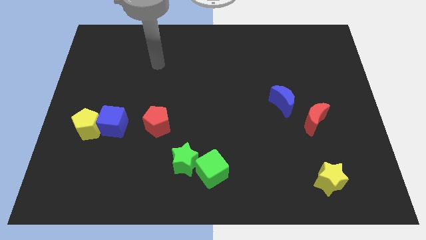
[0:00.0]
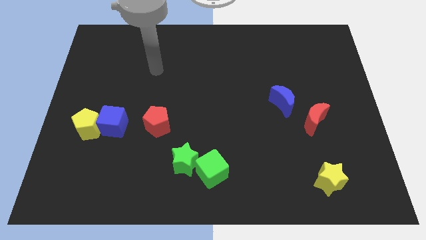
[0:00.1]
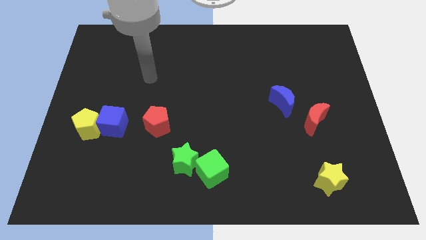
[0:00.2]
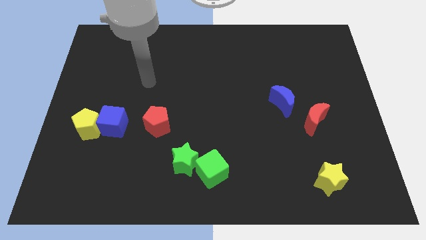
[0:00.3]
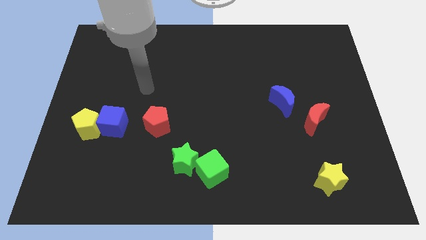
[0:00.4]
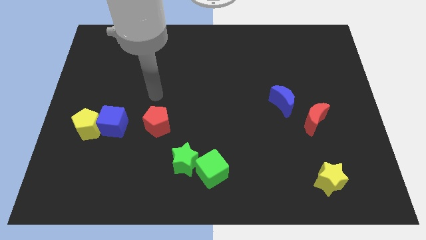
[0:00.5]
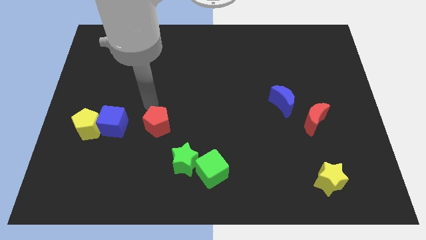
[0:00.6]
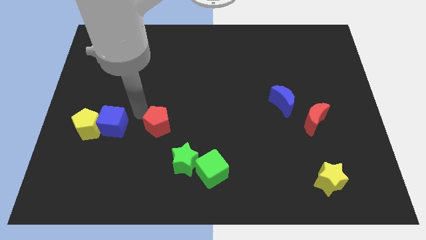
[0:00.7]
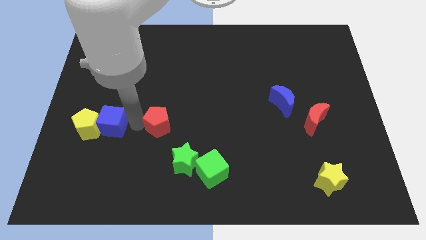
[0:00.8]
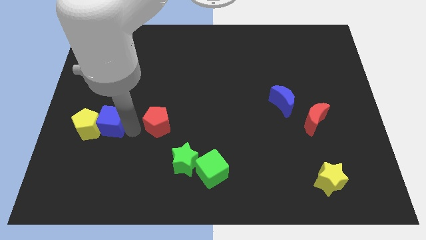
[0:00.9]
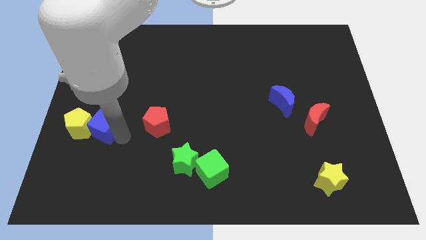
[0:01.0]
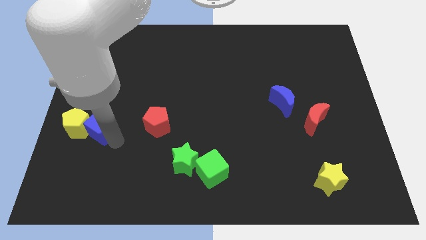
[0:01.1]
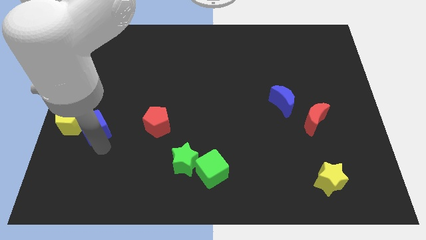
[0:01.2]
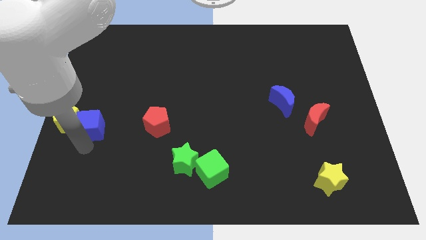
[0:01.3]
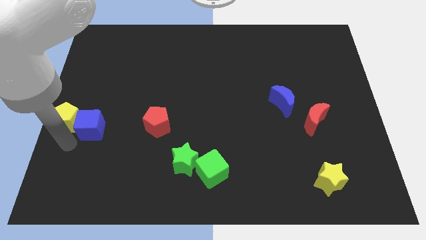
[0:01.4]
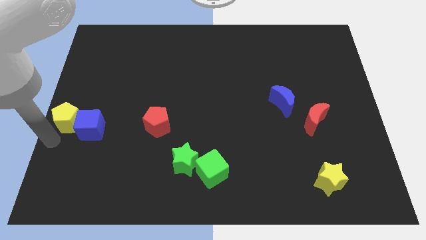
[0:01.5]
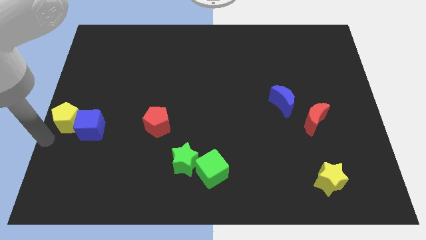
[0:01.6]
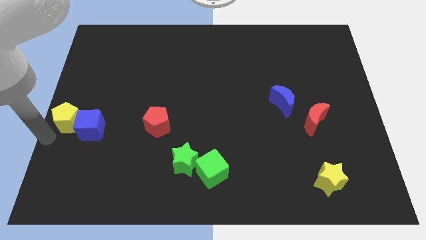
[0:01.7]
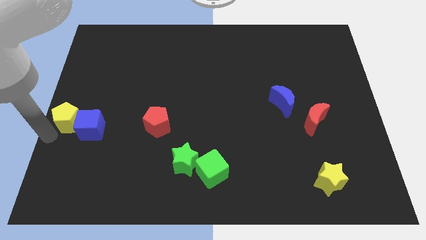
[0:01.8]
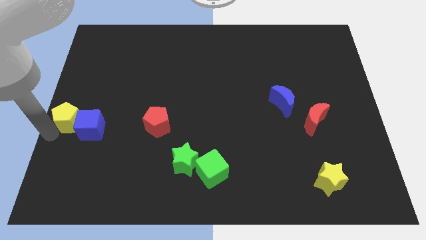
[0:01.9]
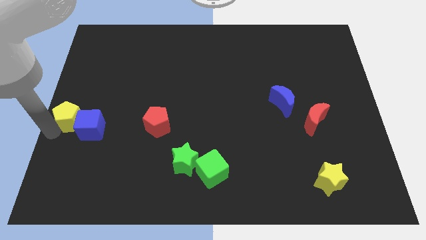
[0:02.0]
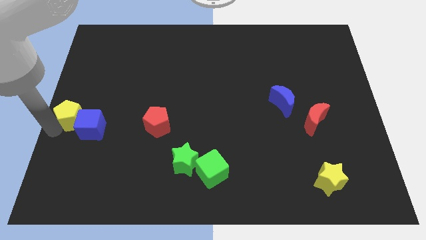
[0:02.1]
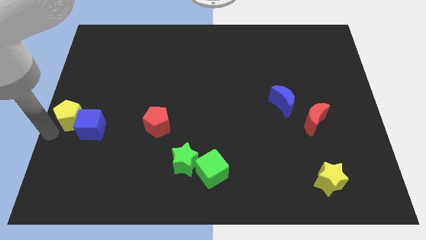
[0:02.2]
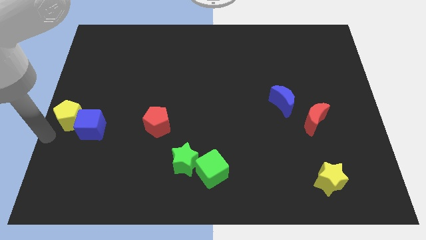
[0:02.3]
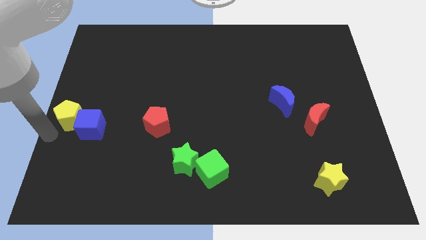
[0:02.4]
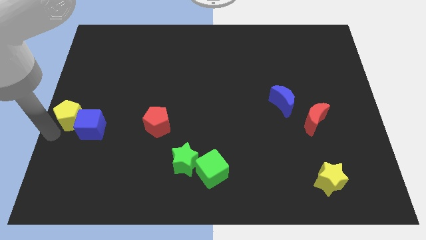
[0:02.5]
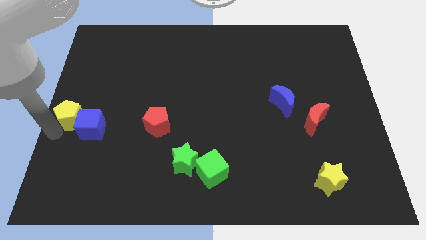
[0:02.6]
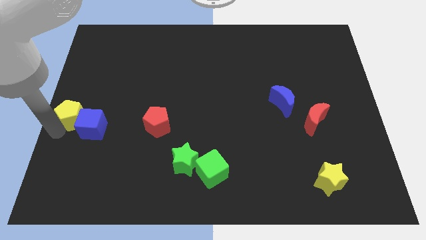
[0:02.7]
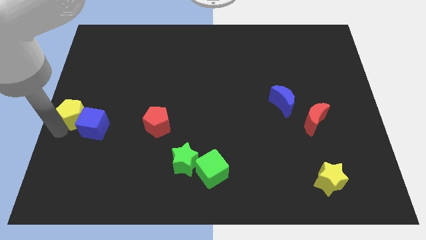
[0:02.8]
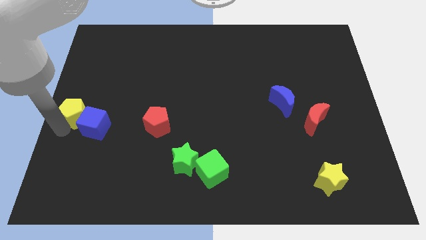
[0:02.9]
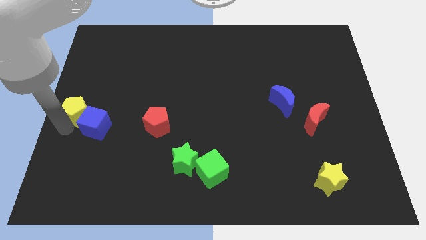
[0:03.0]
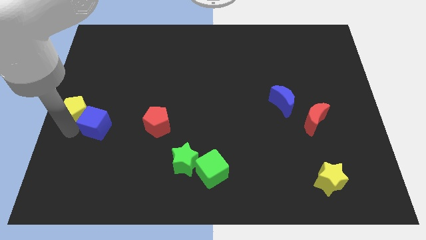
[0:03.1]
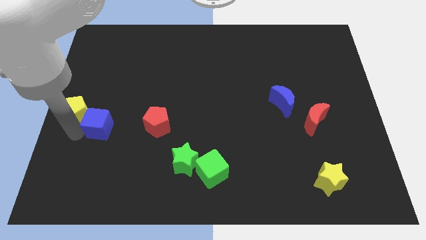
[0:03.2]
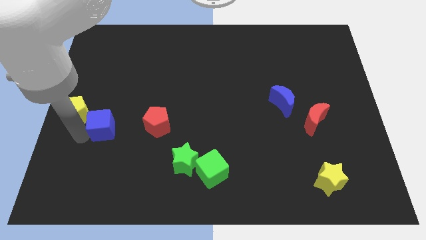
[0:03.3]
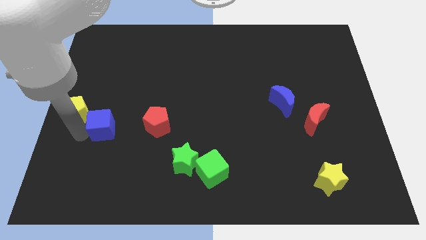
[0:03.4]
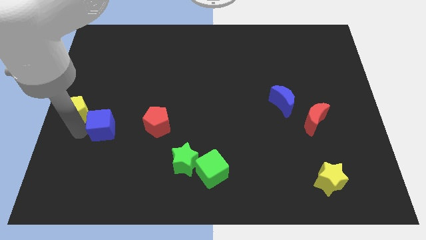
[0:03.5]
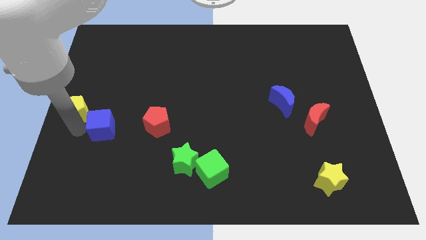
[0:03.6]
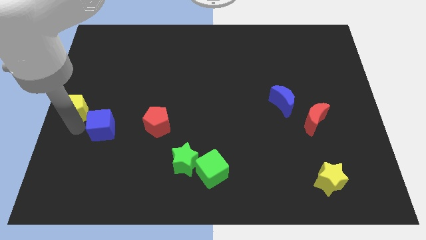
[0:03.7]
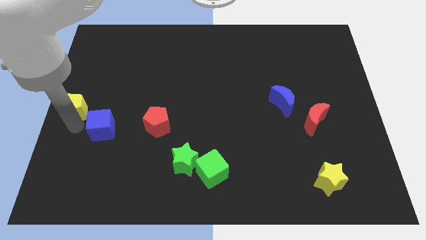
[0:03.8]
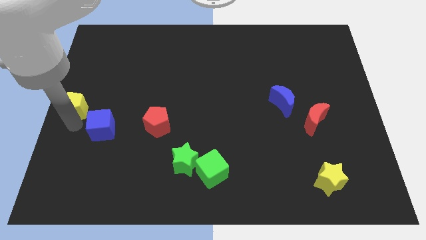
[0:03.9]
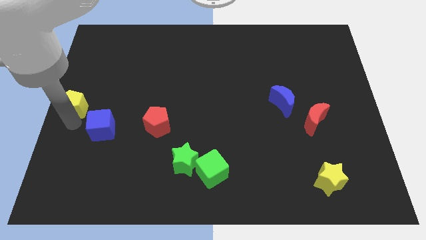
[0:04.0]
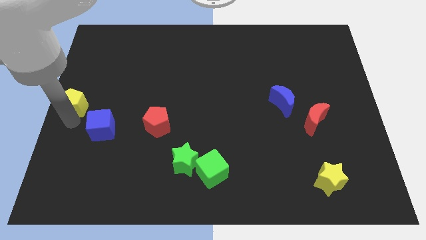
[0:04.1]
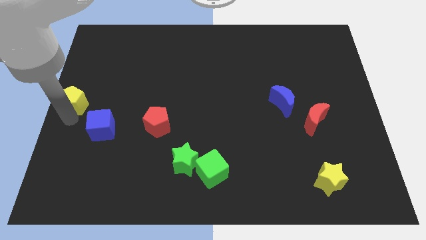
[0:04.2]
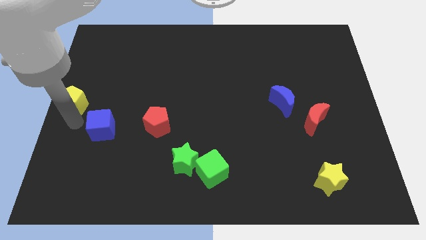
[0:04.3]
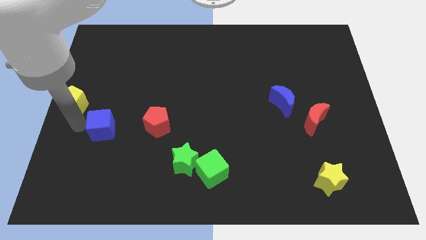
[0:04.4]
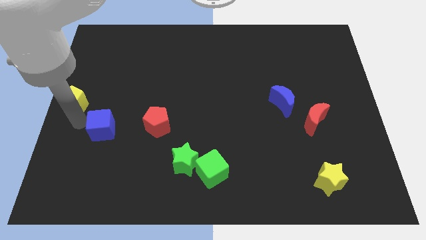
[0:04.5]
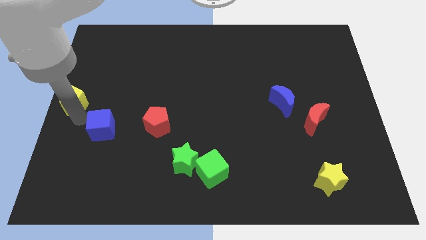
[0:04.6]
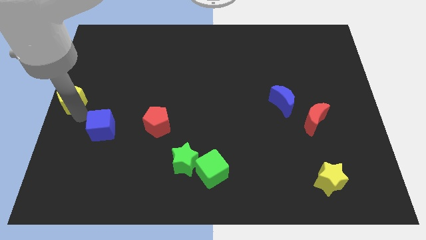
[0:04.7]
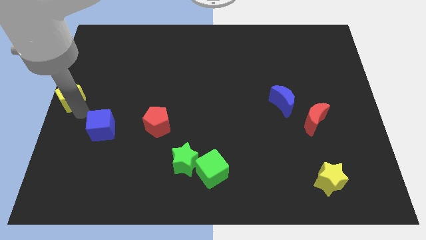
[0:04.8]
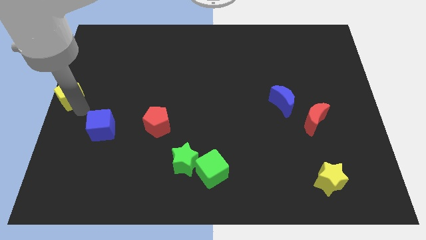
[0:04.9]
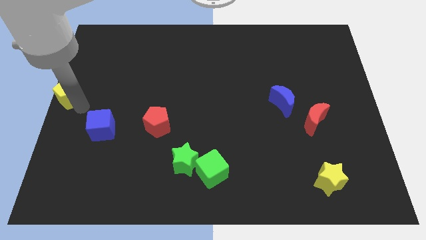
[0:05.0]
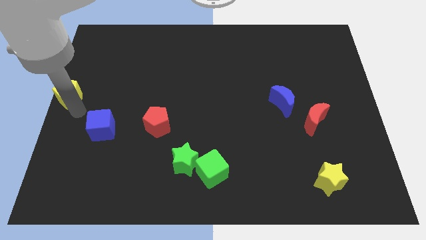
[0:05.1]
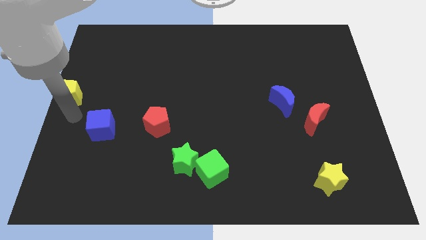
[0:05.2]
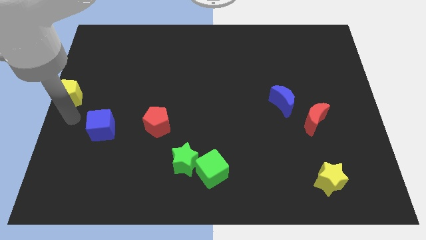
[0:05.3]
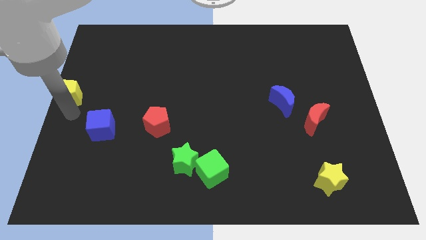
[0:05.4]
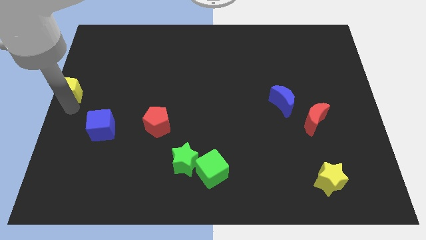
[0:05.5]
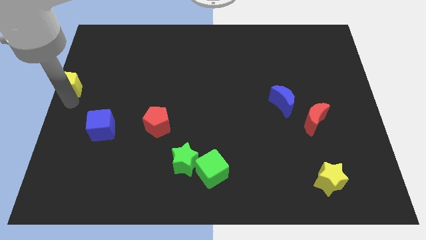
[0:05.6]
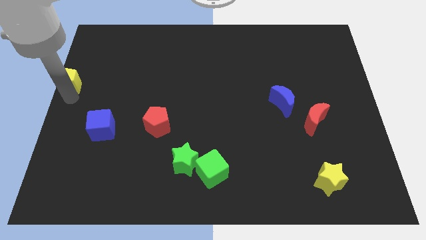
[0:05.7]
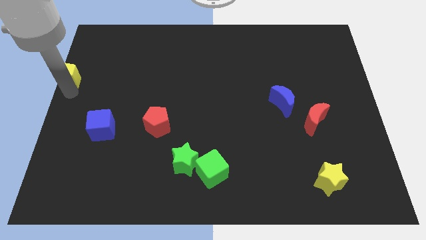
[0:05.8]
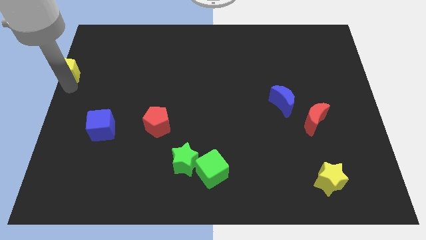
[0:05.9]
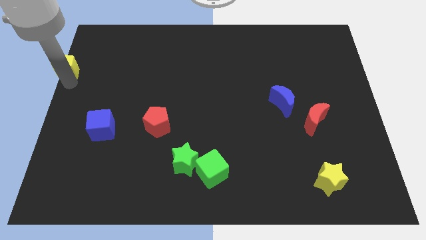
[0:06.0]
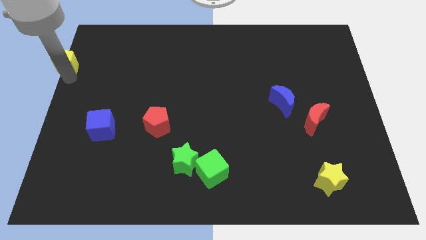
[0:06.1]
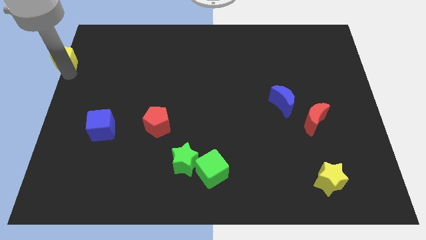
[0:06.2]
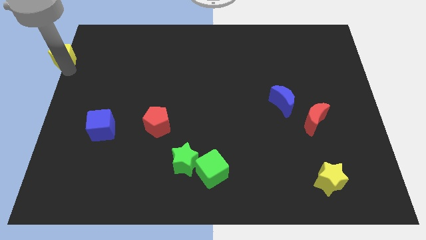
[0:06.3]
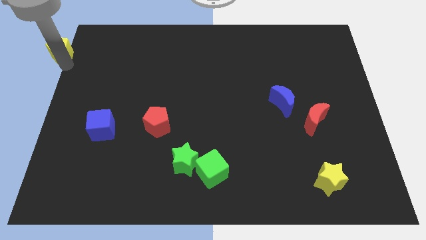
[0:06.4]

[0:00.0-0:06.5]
slide the yellow pentagon to the top left of the board
